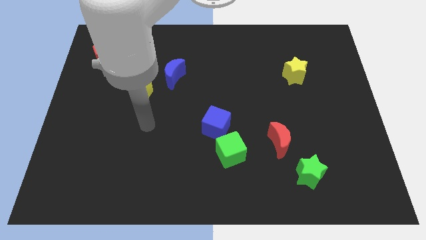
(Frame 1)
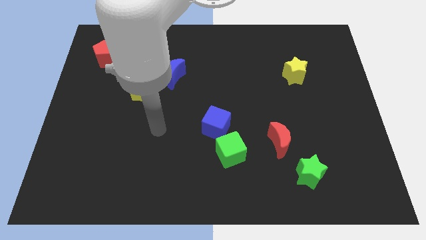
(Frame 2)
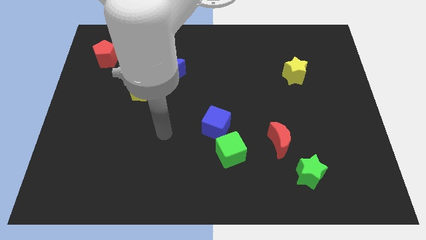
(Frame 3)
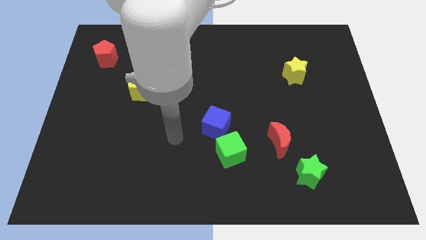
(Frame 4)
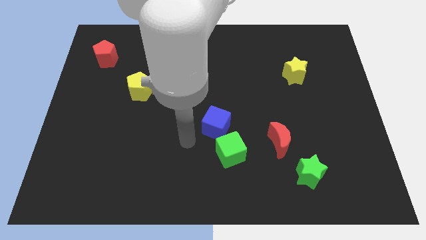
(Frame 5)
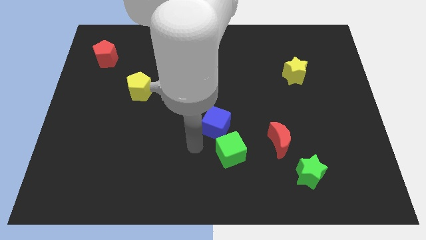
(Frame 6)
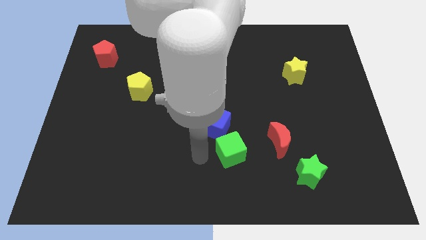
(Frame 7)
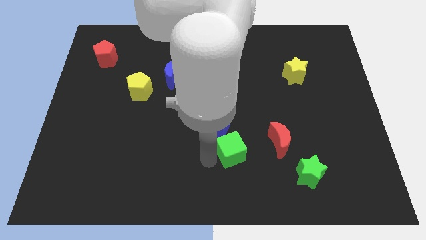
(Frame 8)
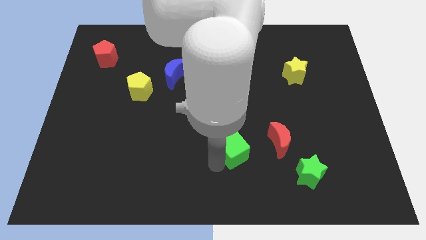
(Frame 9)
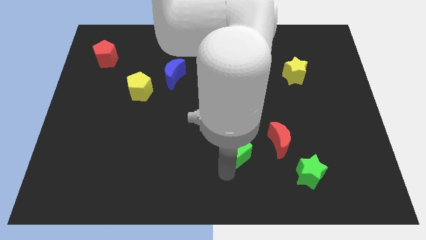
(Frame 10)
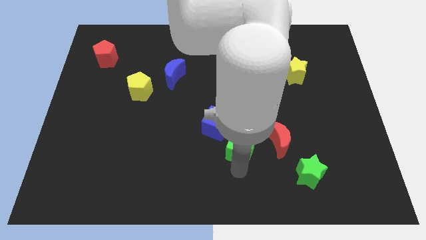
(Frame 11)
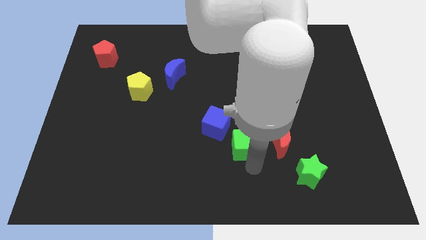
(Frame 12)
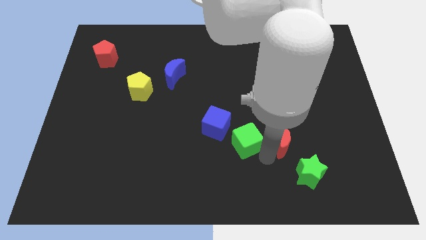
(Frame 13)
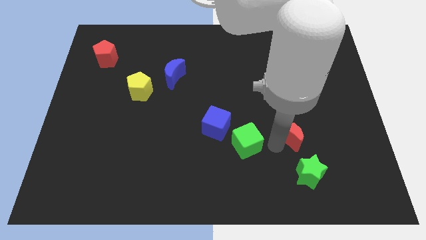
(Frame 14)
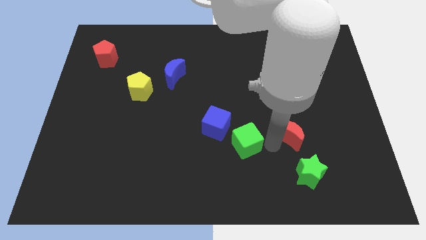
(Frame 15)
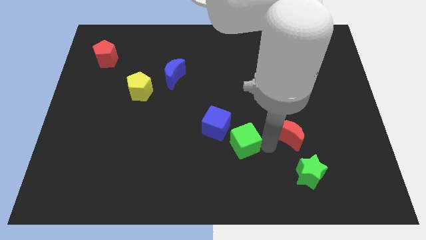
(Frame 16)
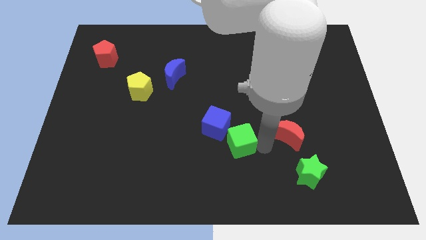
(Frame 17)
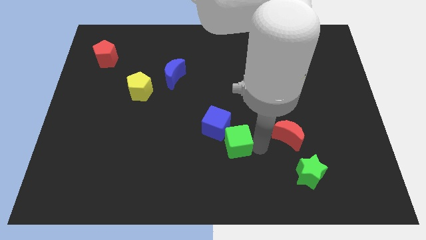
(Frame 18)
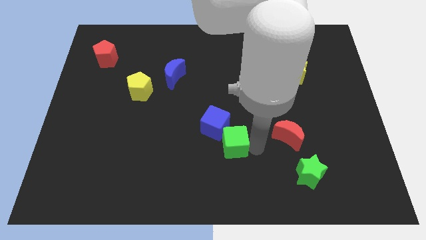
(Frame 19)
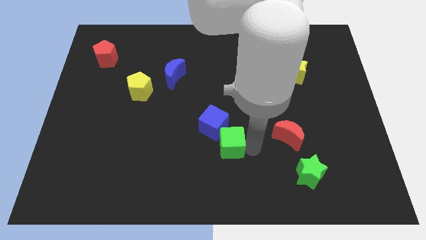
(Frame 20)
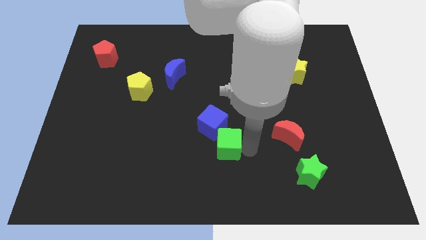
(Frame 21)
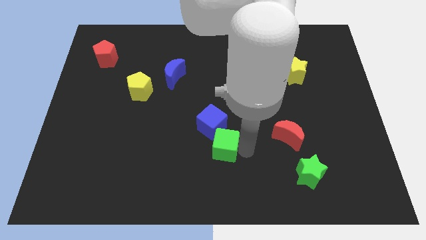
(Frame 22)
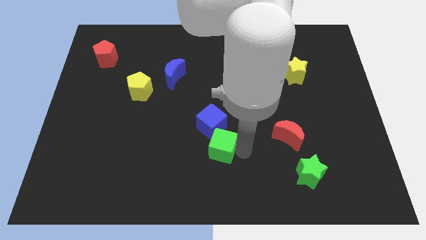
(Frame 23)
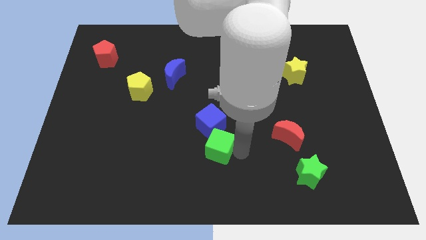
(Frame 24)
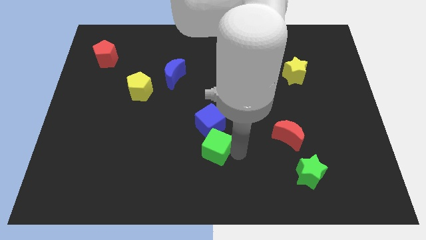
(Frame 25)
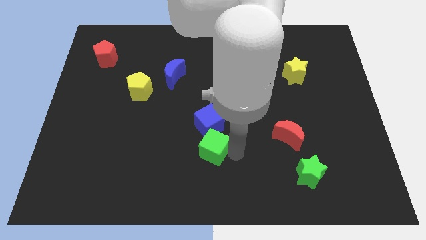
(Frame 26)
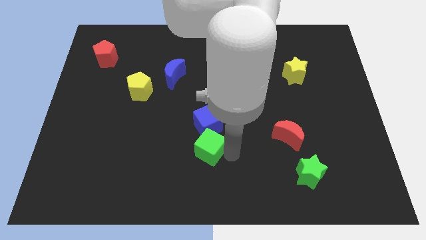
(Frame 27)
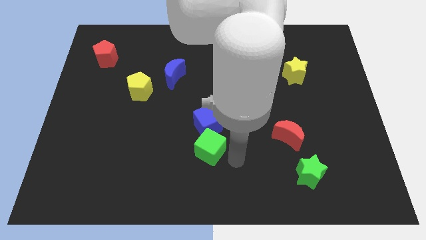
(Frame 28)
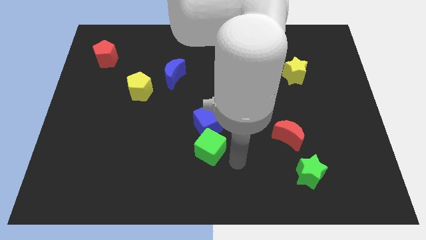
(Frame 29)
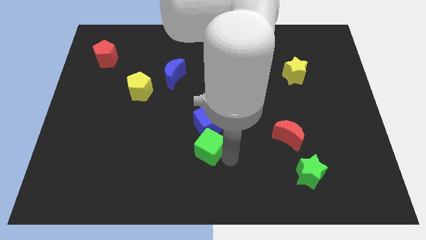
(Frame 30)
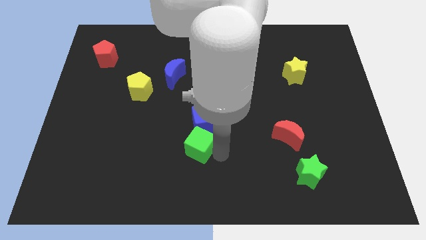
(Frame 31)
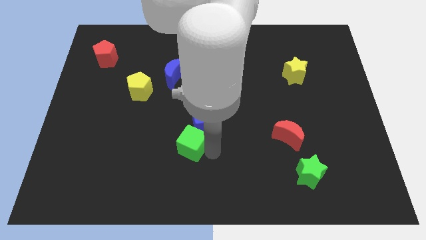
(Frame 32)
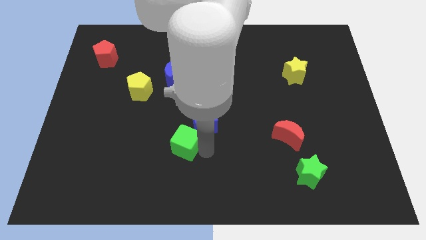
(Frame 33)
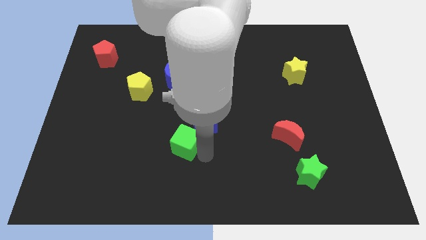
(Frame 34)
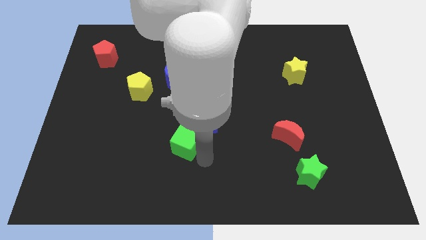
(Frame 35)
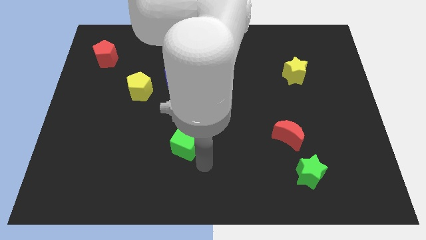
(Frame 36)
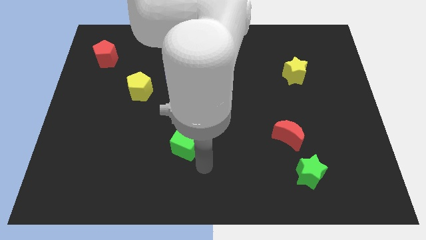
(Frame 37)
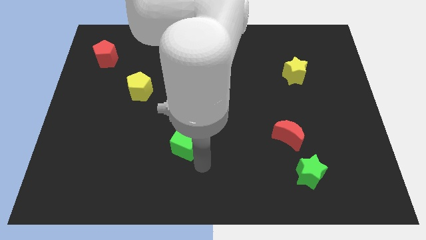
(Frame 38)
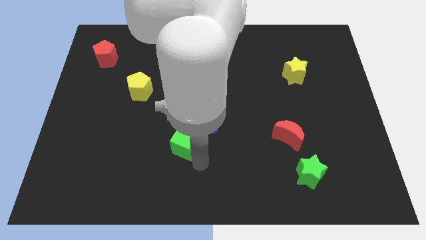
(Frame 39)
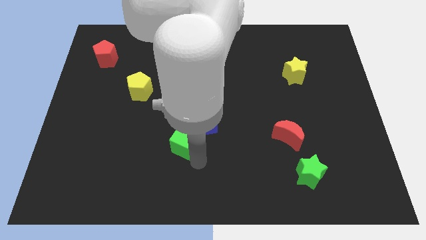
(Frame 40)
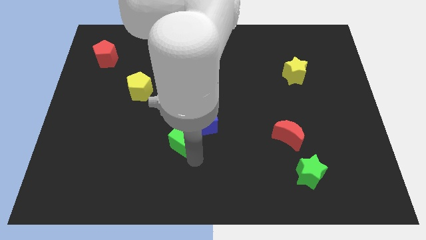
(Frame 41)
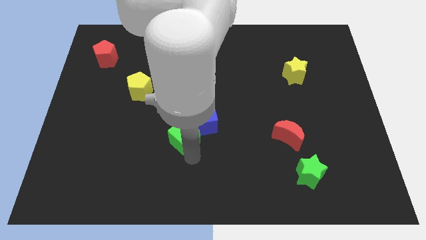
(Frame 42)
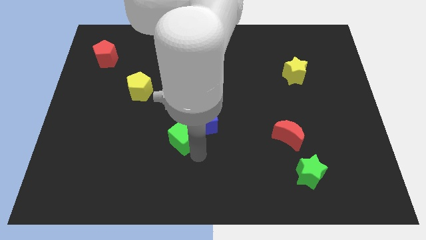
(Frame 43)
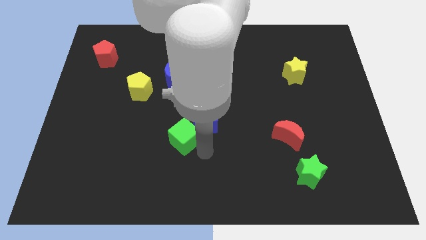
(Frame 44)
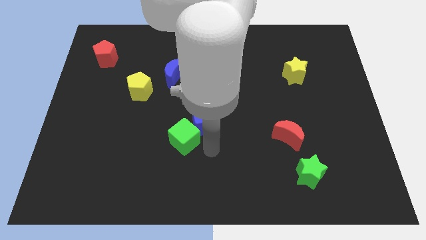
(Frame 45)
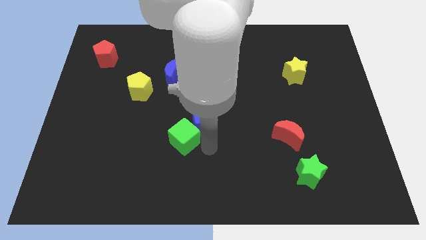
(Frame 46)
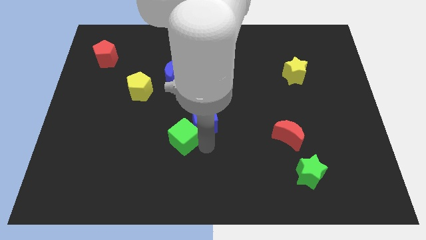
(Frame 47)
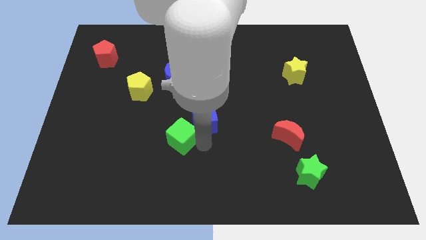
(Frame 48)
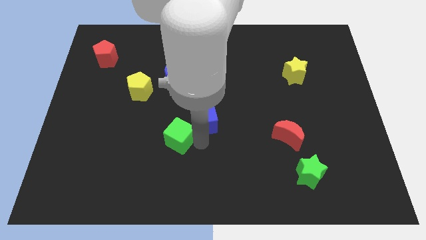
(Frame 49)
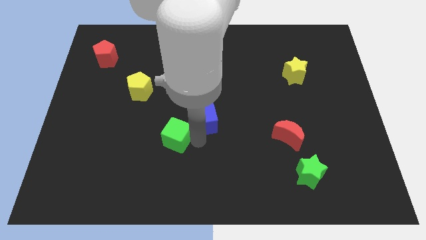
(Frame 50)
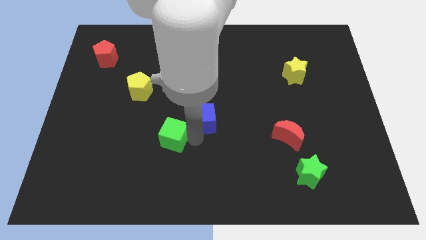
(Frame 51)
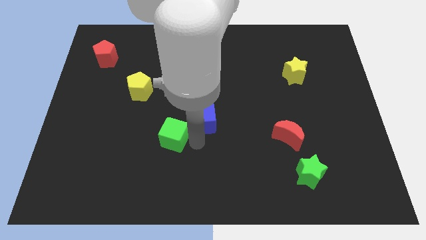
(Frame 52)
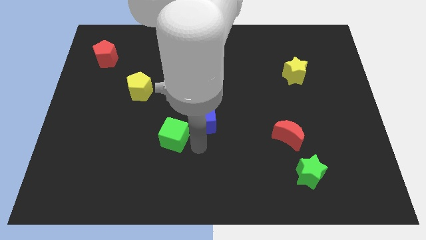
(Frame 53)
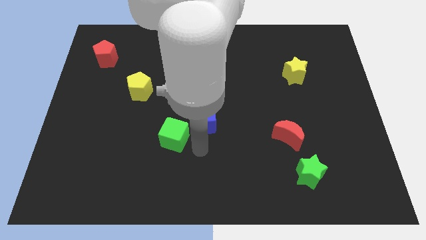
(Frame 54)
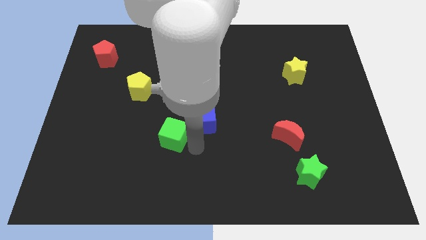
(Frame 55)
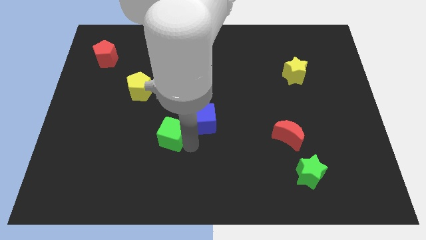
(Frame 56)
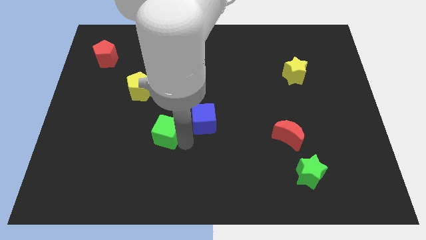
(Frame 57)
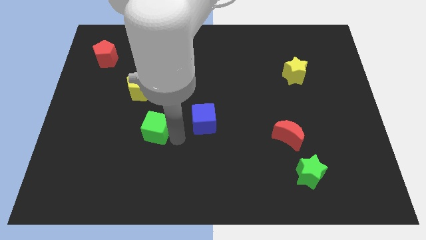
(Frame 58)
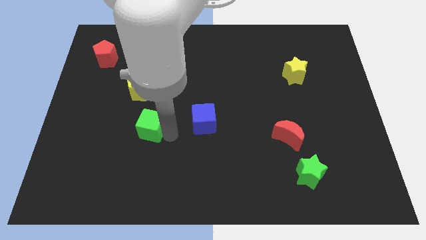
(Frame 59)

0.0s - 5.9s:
put the green cube to the bottom of the yellow pentagon

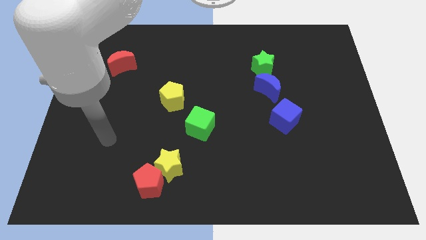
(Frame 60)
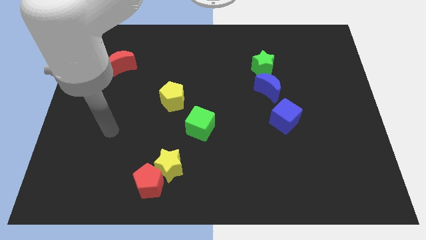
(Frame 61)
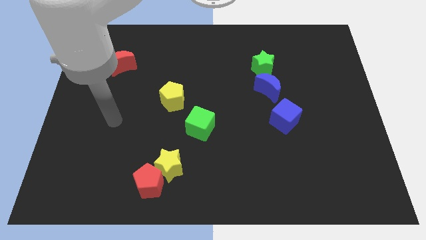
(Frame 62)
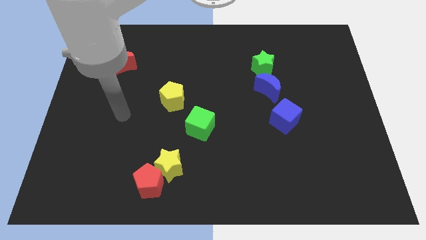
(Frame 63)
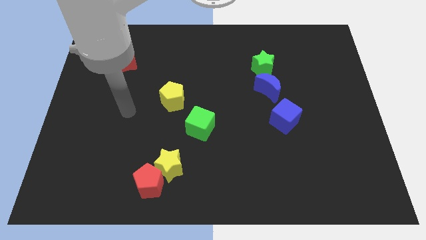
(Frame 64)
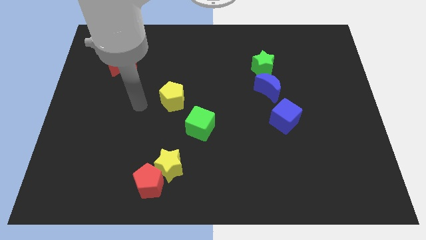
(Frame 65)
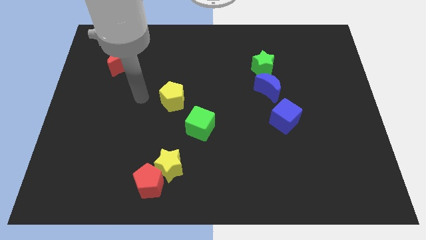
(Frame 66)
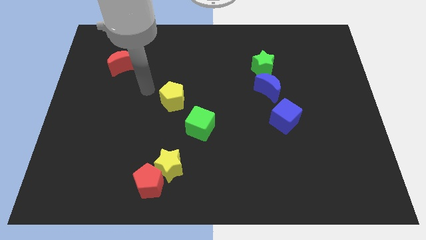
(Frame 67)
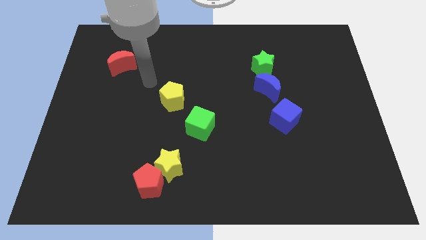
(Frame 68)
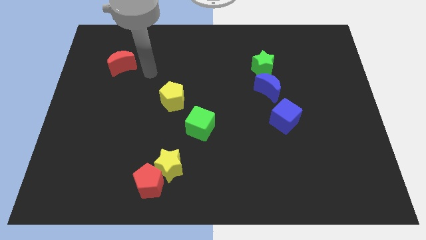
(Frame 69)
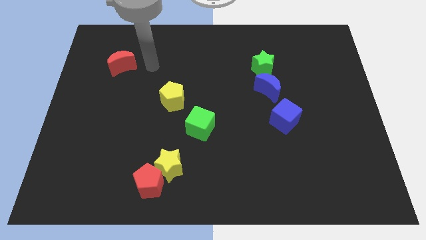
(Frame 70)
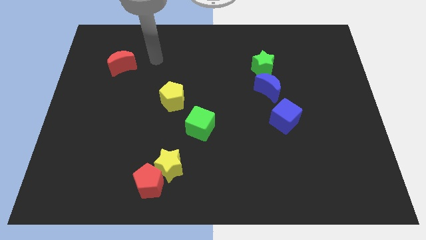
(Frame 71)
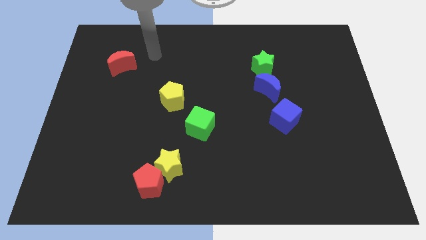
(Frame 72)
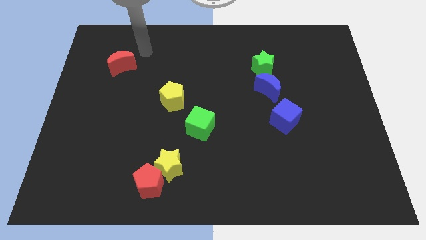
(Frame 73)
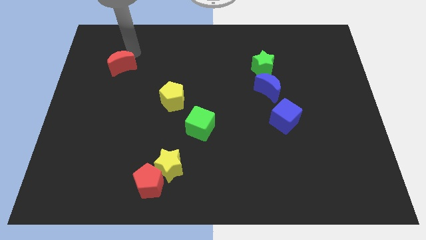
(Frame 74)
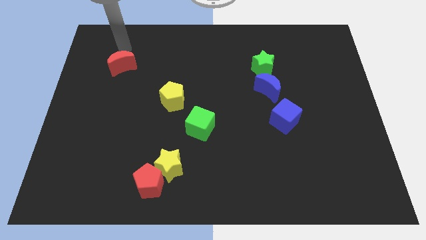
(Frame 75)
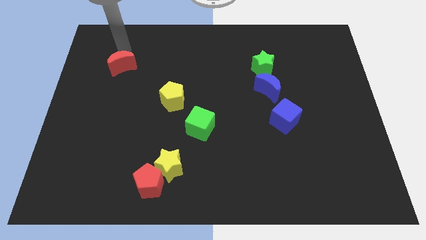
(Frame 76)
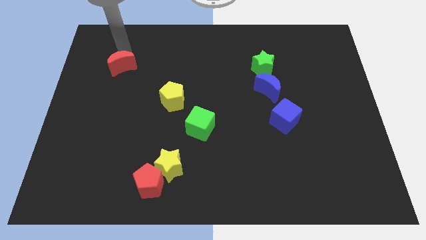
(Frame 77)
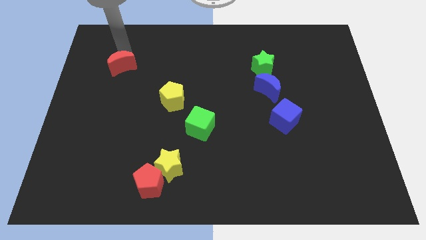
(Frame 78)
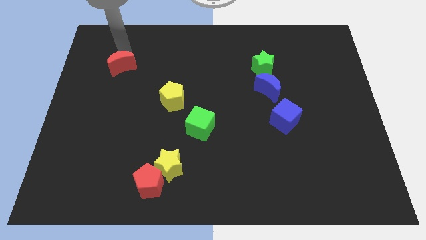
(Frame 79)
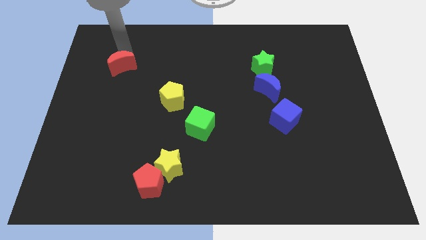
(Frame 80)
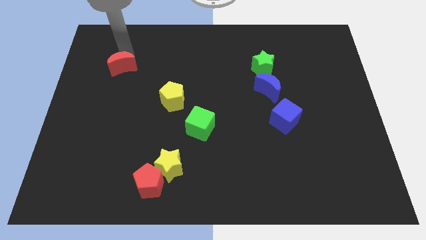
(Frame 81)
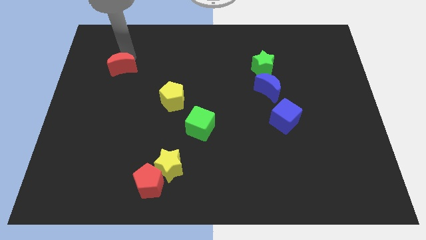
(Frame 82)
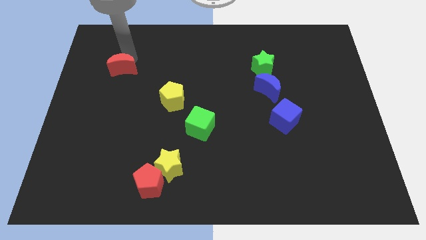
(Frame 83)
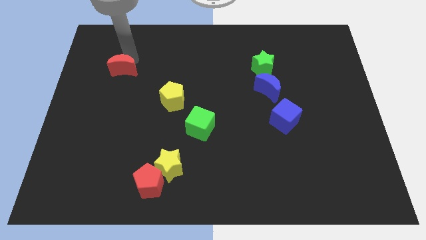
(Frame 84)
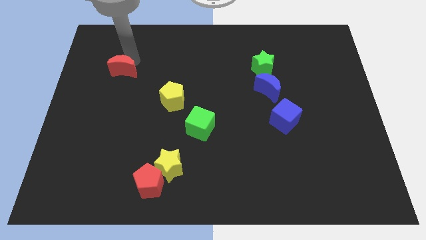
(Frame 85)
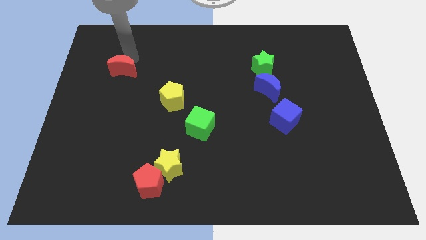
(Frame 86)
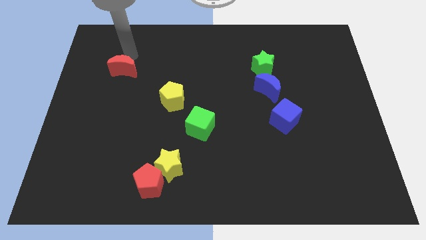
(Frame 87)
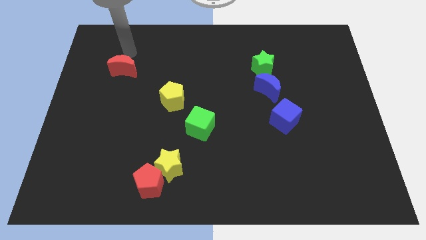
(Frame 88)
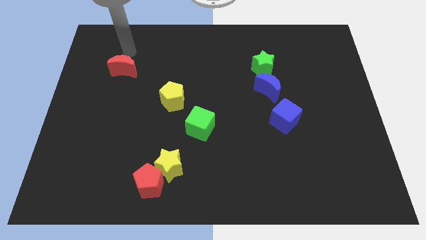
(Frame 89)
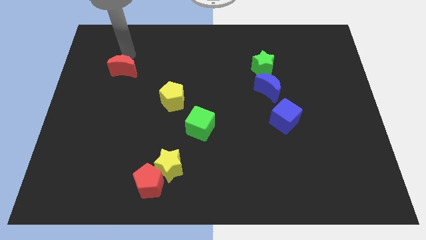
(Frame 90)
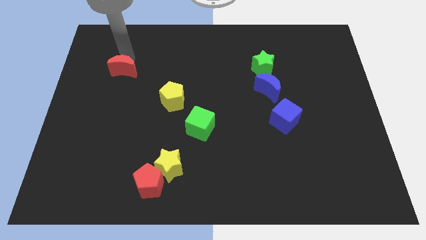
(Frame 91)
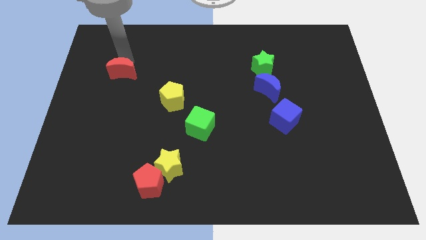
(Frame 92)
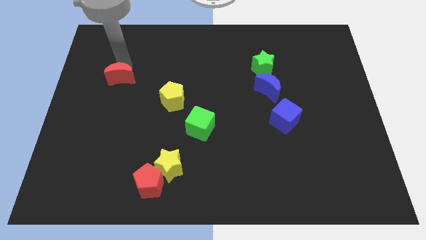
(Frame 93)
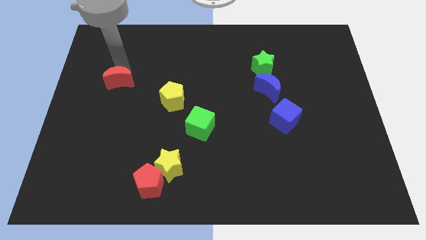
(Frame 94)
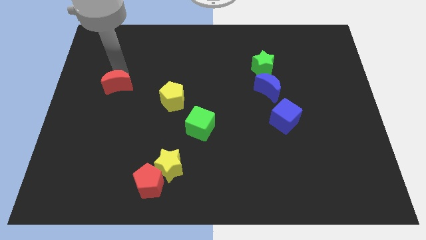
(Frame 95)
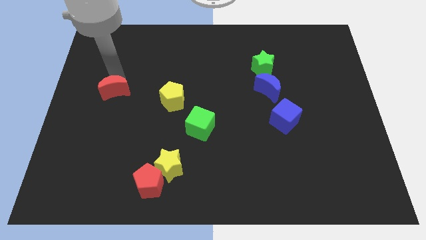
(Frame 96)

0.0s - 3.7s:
slide the red moon just left of the yellow pentagon
